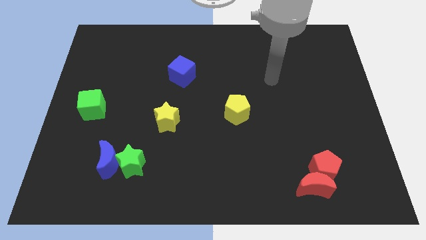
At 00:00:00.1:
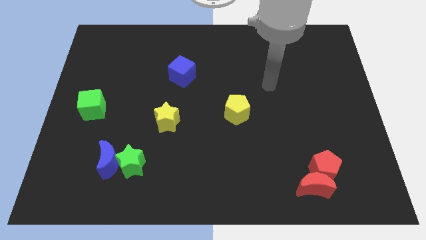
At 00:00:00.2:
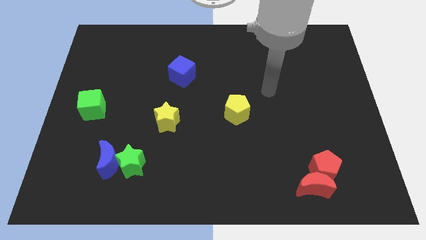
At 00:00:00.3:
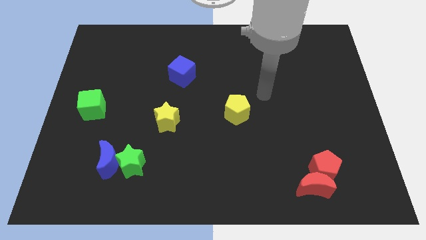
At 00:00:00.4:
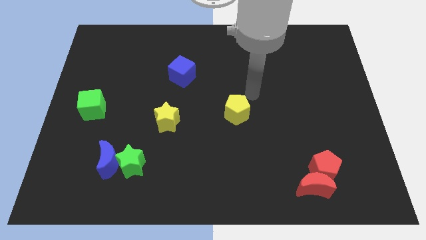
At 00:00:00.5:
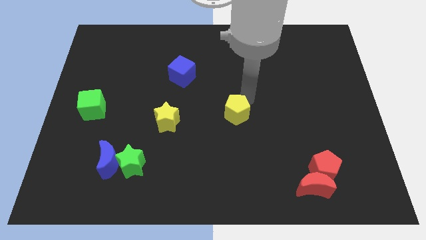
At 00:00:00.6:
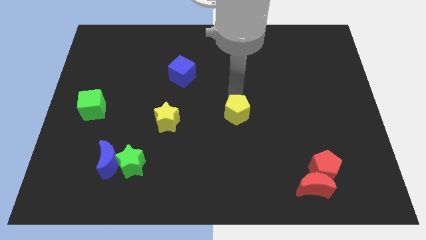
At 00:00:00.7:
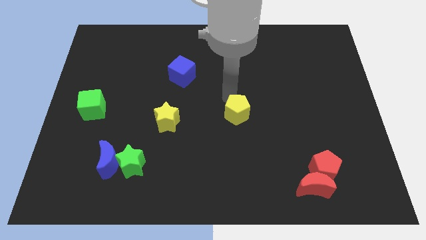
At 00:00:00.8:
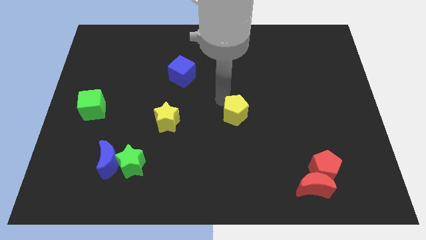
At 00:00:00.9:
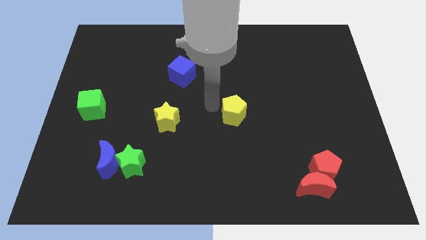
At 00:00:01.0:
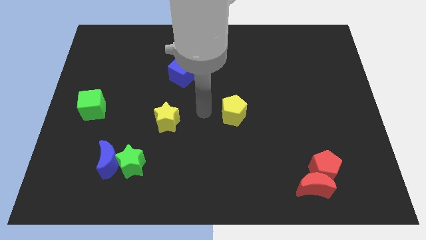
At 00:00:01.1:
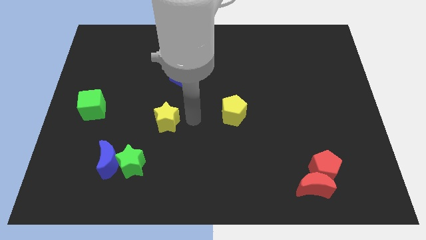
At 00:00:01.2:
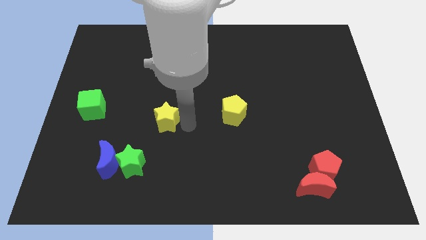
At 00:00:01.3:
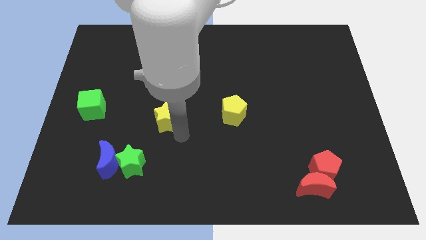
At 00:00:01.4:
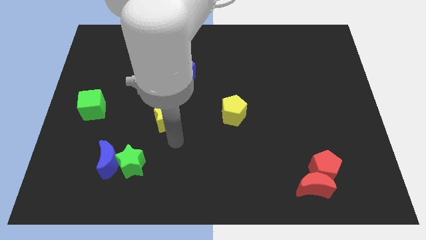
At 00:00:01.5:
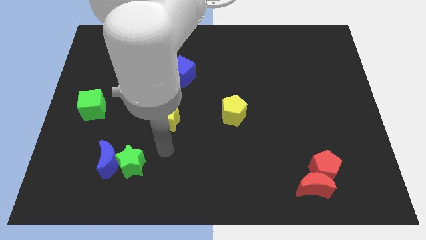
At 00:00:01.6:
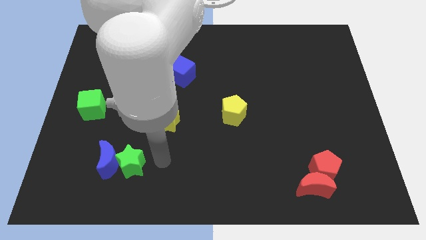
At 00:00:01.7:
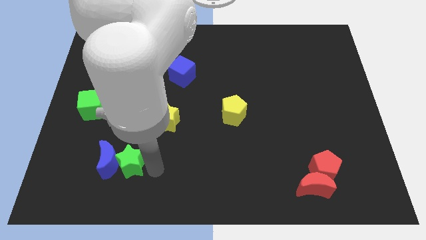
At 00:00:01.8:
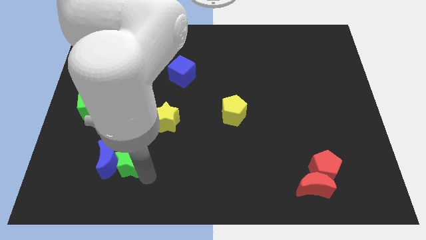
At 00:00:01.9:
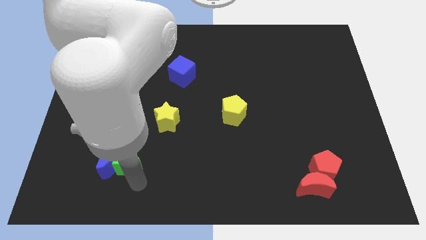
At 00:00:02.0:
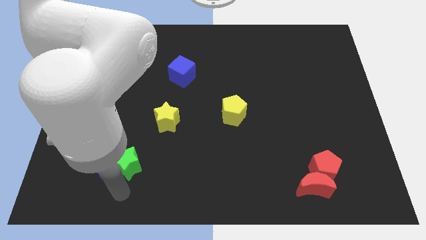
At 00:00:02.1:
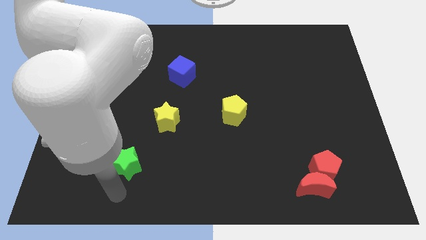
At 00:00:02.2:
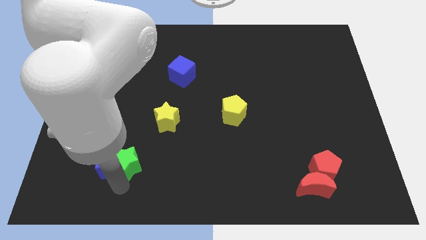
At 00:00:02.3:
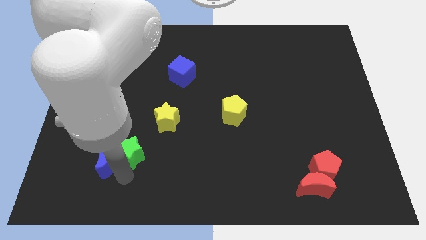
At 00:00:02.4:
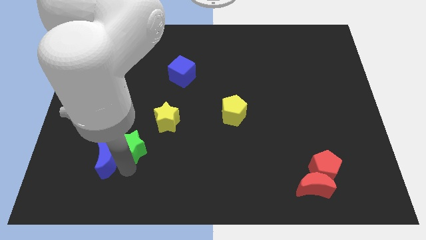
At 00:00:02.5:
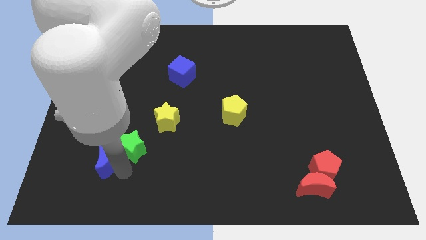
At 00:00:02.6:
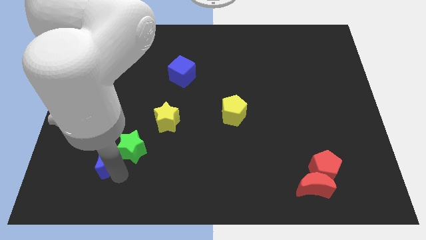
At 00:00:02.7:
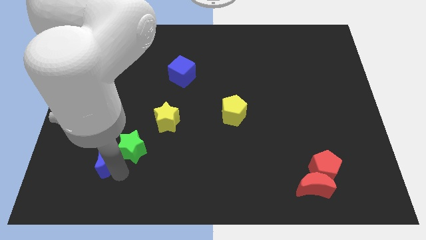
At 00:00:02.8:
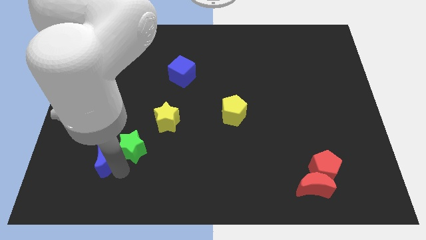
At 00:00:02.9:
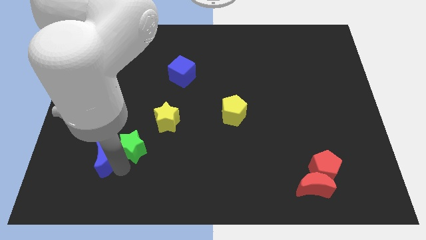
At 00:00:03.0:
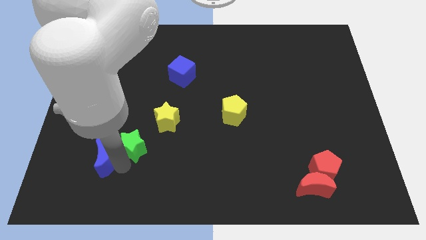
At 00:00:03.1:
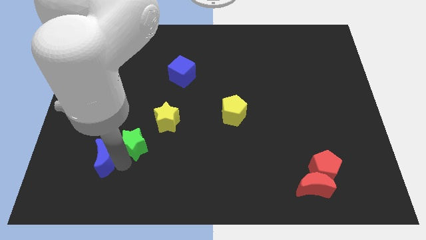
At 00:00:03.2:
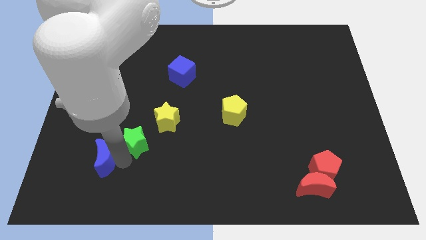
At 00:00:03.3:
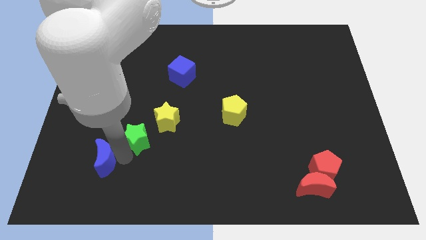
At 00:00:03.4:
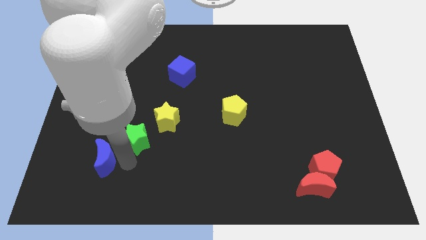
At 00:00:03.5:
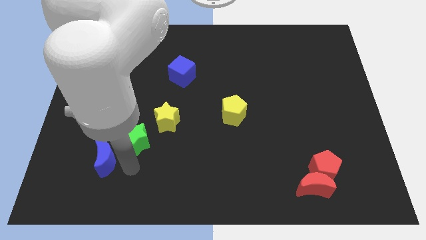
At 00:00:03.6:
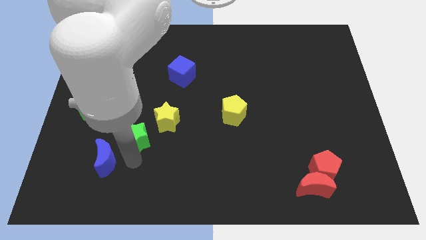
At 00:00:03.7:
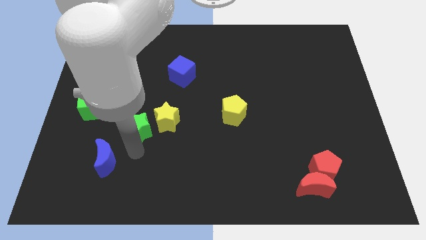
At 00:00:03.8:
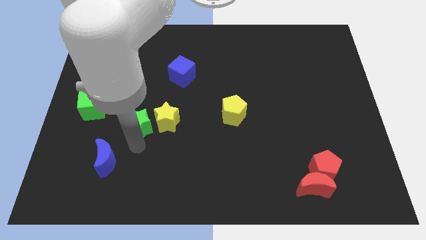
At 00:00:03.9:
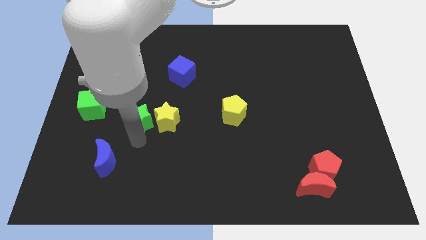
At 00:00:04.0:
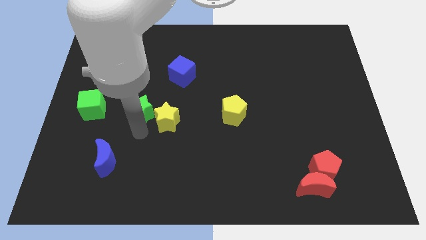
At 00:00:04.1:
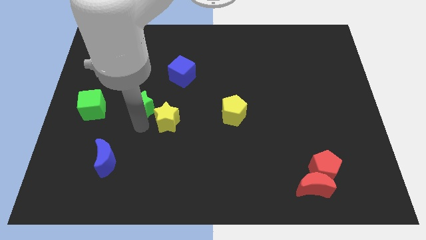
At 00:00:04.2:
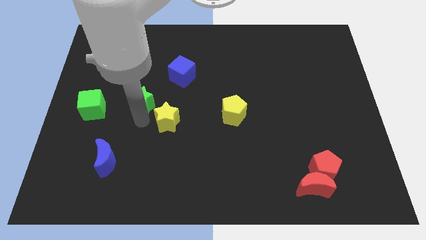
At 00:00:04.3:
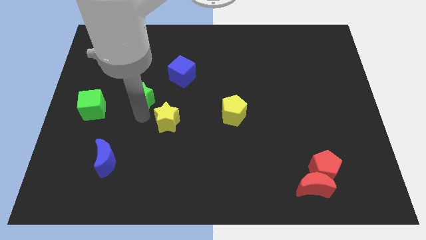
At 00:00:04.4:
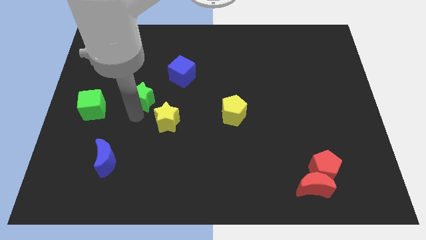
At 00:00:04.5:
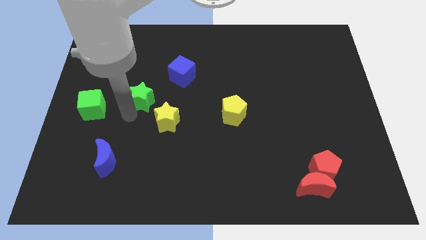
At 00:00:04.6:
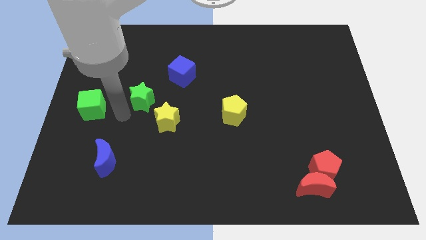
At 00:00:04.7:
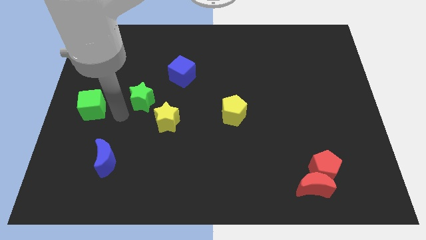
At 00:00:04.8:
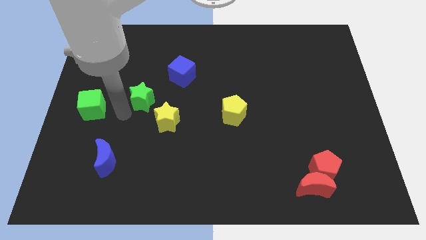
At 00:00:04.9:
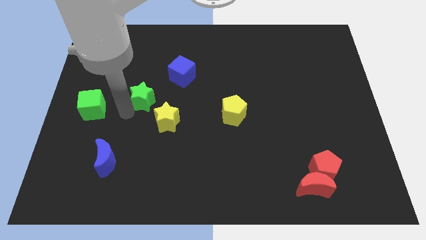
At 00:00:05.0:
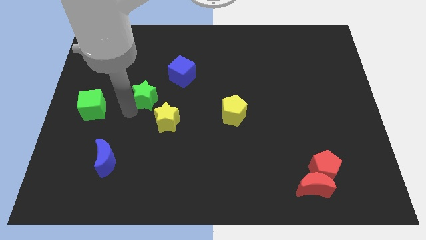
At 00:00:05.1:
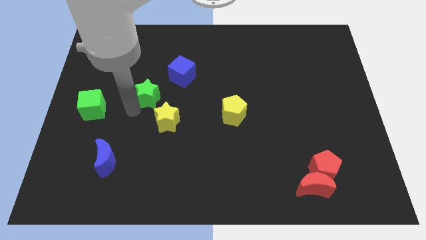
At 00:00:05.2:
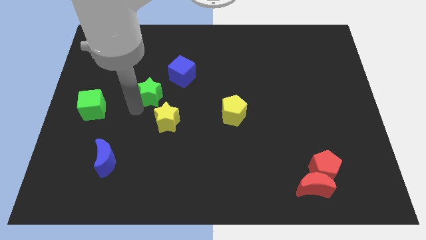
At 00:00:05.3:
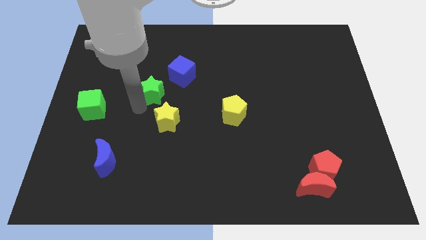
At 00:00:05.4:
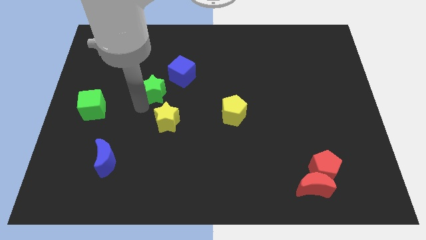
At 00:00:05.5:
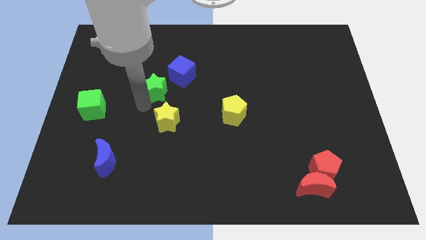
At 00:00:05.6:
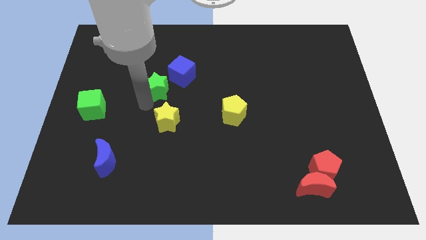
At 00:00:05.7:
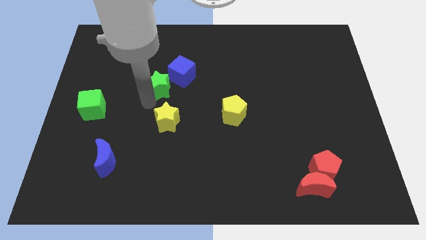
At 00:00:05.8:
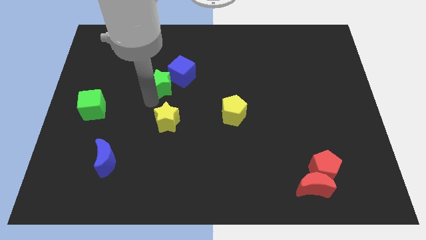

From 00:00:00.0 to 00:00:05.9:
put the green star towards the blue cube
